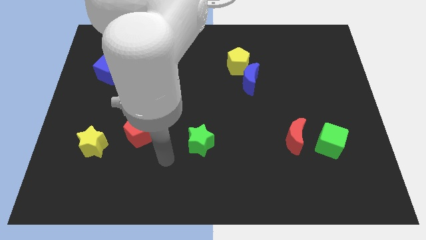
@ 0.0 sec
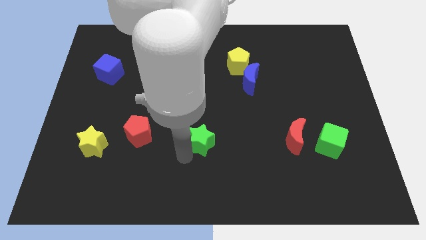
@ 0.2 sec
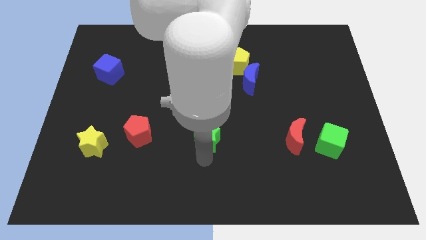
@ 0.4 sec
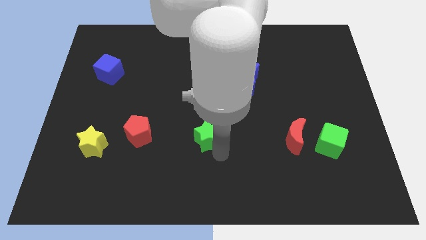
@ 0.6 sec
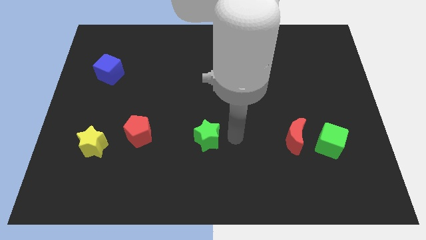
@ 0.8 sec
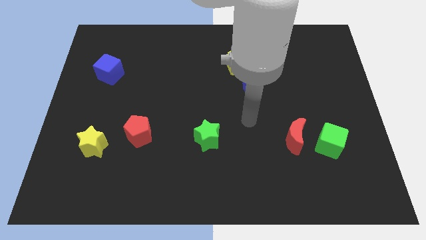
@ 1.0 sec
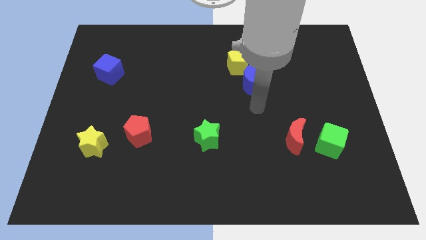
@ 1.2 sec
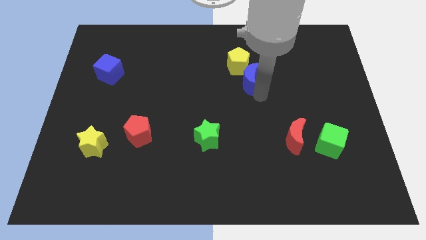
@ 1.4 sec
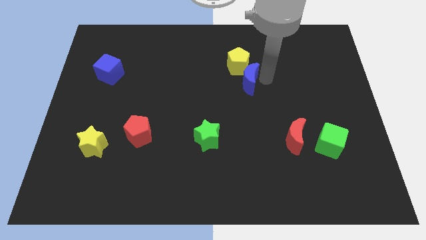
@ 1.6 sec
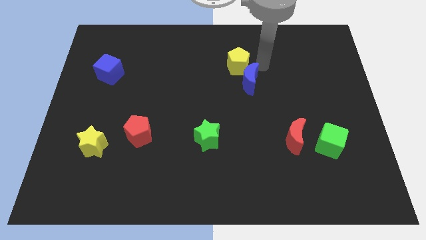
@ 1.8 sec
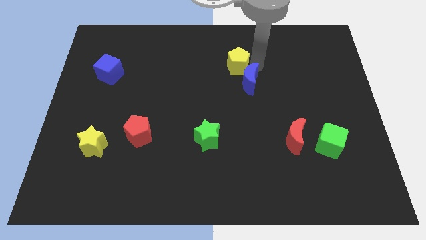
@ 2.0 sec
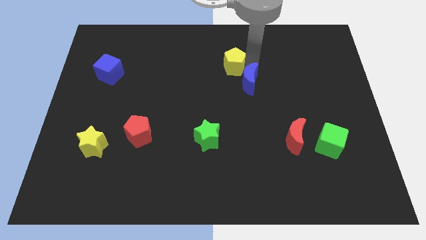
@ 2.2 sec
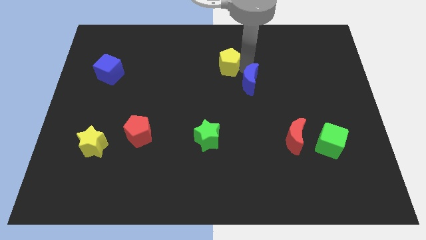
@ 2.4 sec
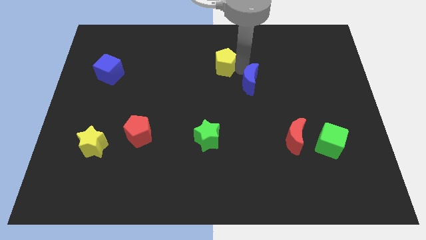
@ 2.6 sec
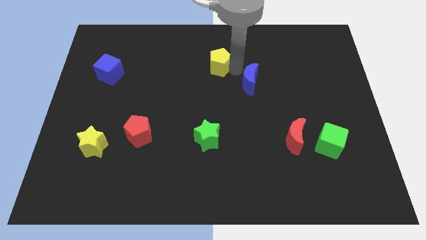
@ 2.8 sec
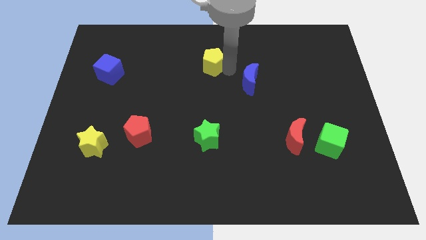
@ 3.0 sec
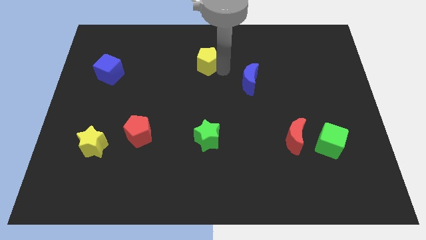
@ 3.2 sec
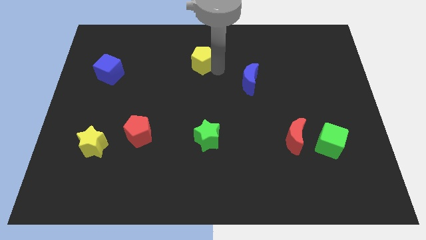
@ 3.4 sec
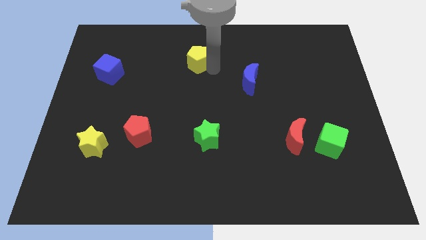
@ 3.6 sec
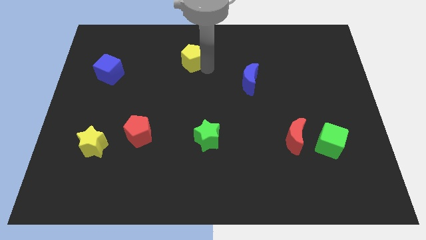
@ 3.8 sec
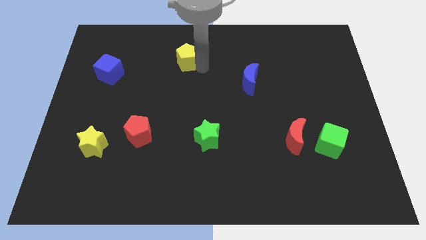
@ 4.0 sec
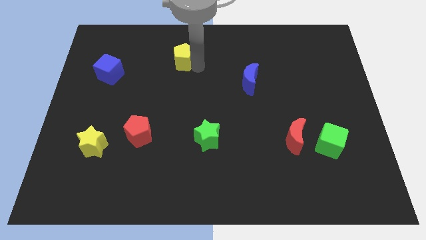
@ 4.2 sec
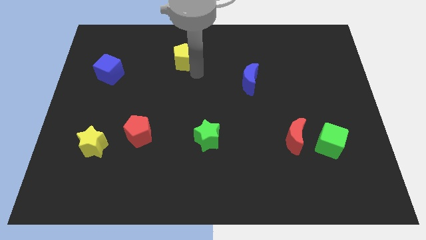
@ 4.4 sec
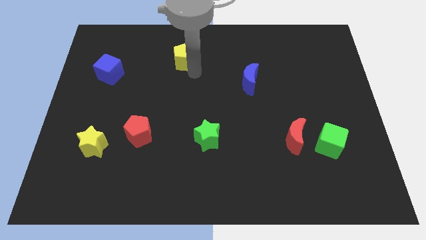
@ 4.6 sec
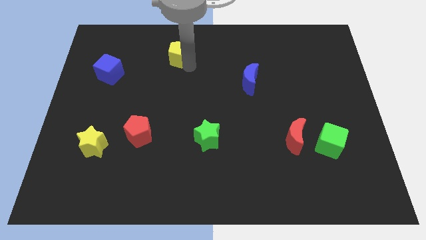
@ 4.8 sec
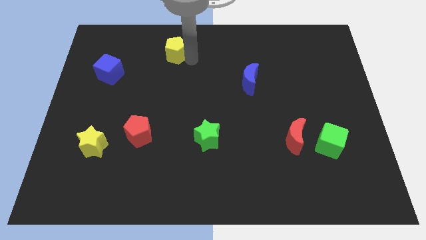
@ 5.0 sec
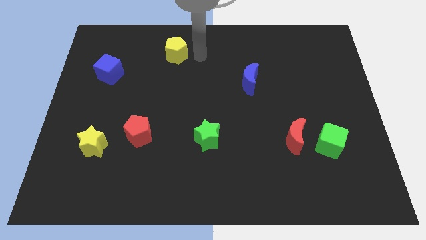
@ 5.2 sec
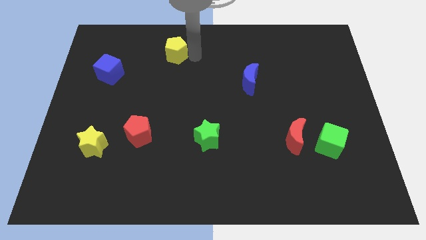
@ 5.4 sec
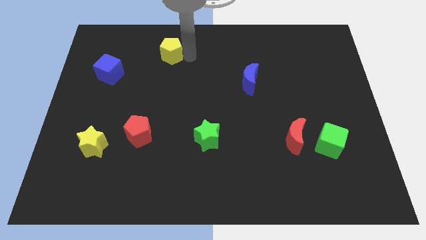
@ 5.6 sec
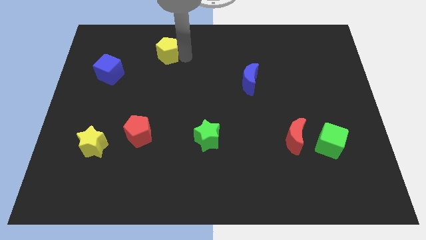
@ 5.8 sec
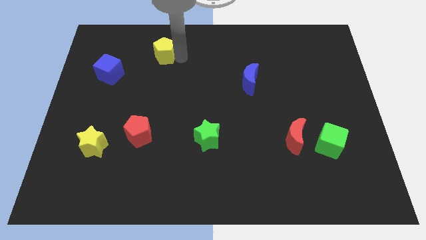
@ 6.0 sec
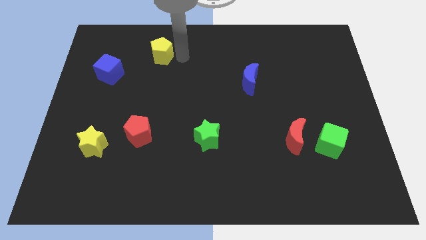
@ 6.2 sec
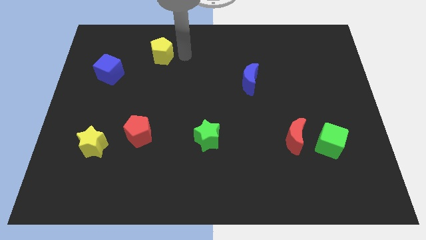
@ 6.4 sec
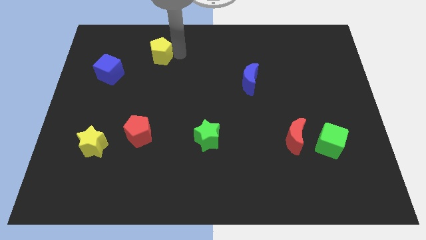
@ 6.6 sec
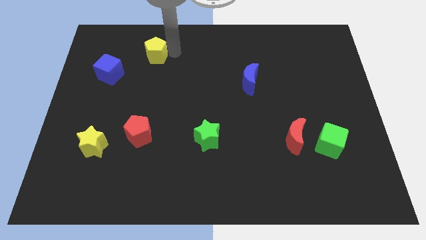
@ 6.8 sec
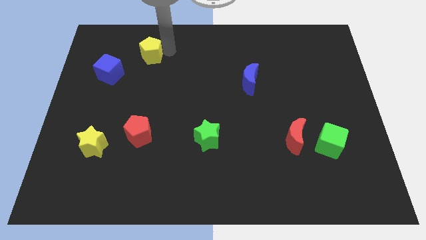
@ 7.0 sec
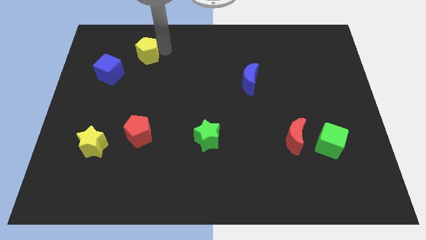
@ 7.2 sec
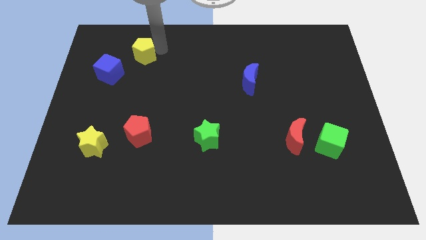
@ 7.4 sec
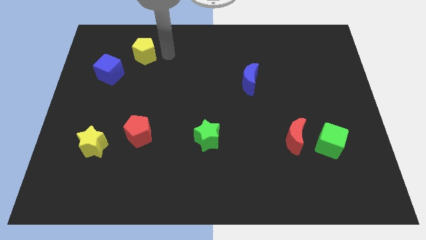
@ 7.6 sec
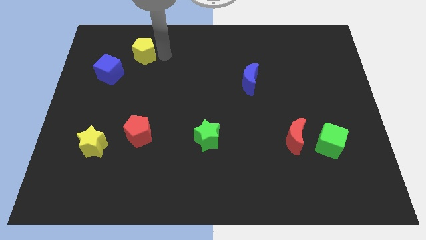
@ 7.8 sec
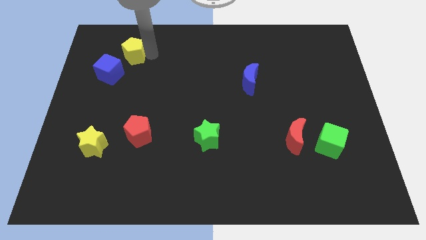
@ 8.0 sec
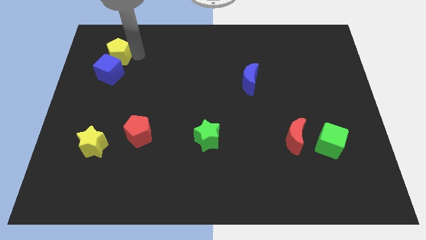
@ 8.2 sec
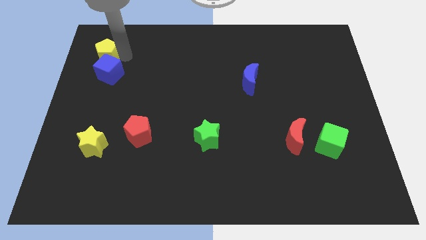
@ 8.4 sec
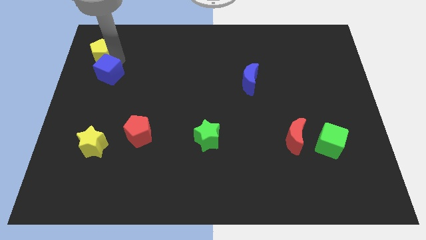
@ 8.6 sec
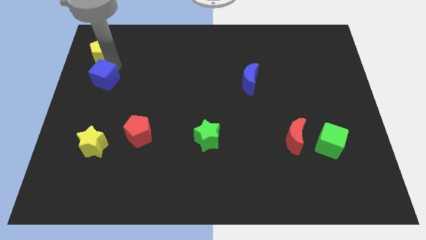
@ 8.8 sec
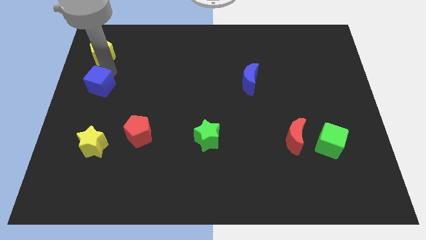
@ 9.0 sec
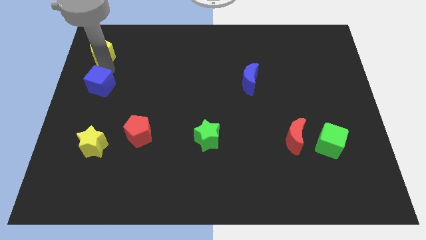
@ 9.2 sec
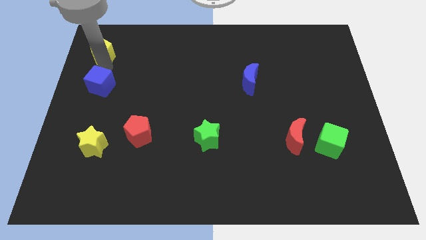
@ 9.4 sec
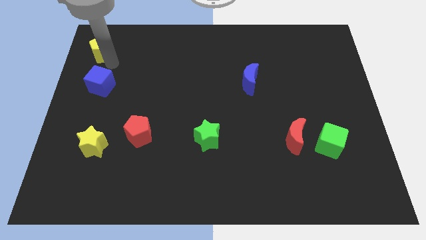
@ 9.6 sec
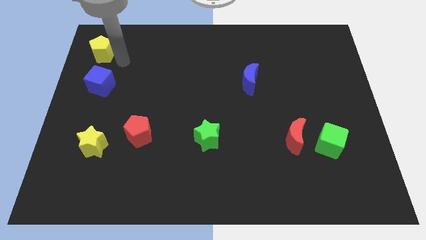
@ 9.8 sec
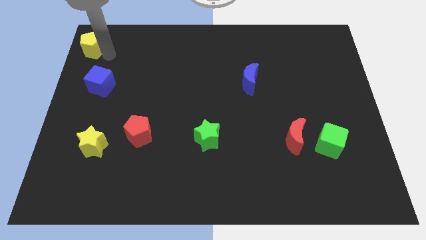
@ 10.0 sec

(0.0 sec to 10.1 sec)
push the yellow pentagon to the top left corner

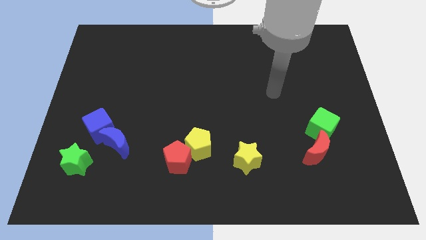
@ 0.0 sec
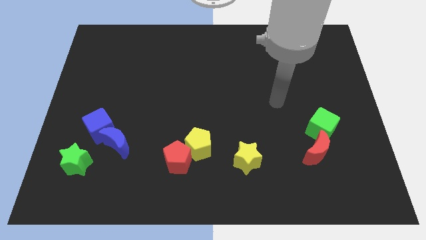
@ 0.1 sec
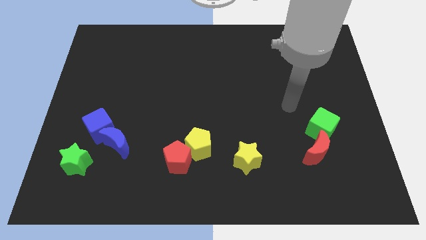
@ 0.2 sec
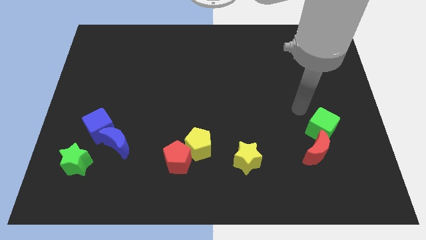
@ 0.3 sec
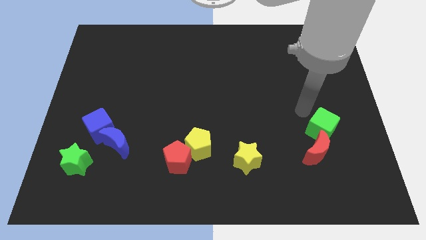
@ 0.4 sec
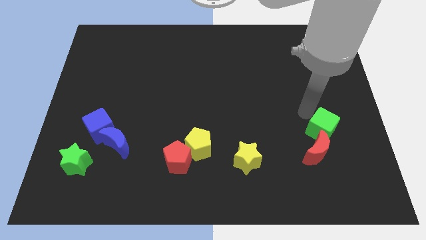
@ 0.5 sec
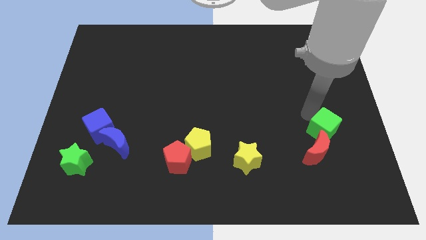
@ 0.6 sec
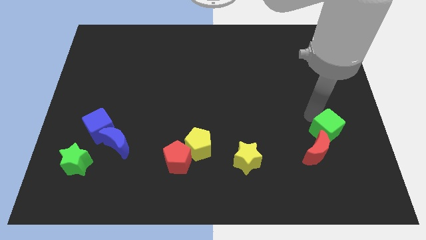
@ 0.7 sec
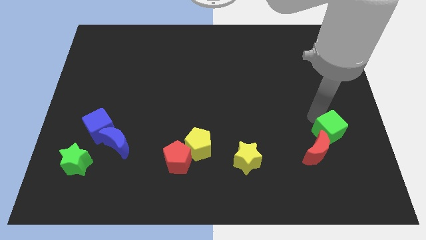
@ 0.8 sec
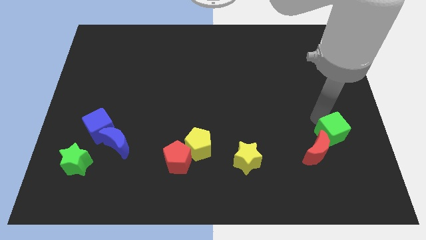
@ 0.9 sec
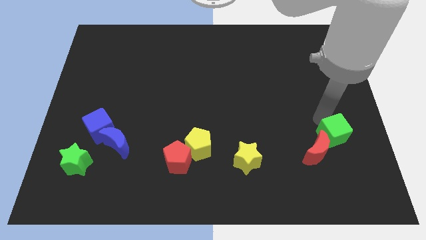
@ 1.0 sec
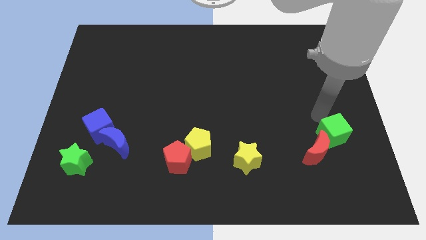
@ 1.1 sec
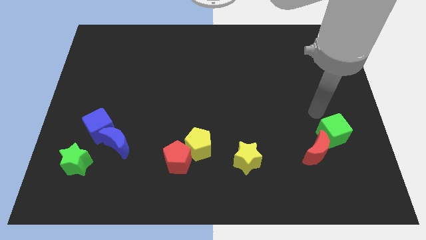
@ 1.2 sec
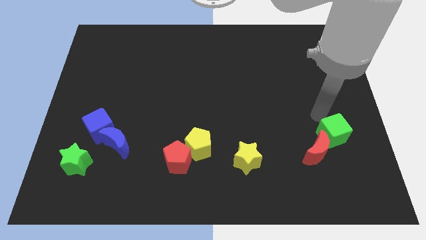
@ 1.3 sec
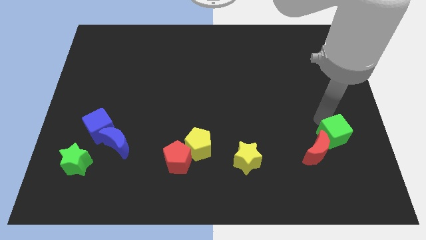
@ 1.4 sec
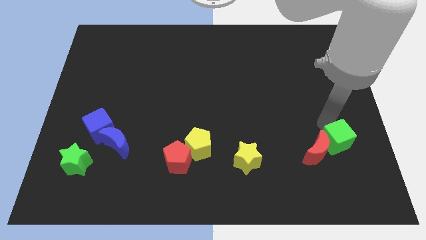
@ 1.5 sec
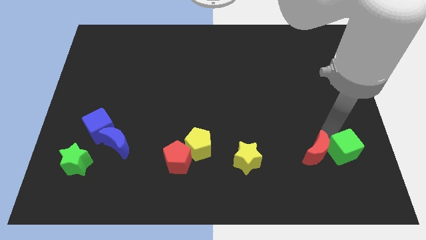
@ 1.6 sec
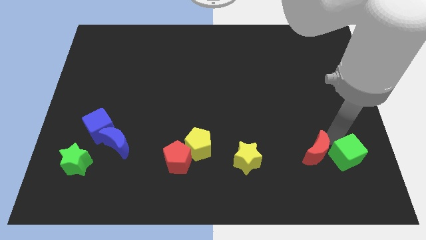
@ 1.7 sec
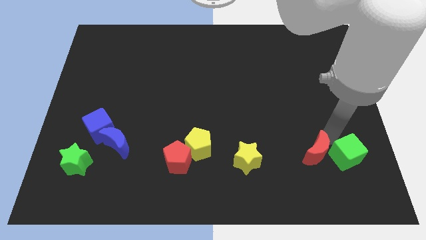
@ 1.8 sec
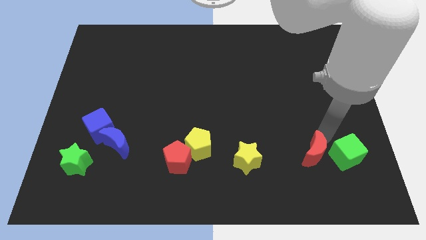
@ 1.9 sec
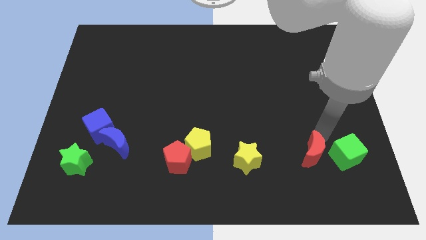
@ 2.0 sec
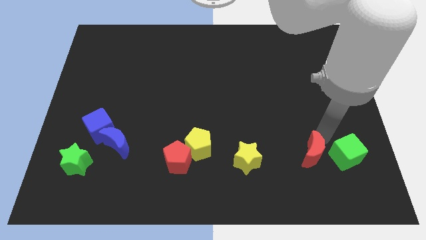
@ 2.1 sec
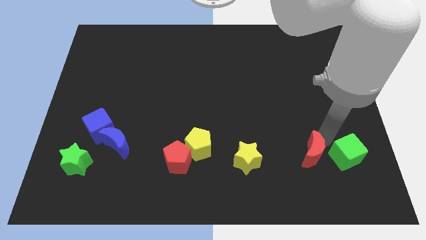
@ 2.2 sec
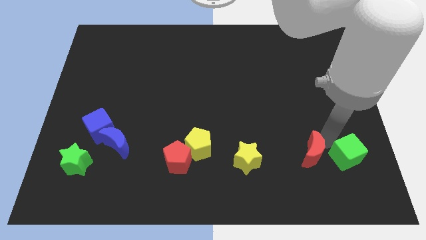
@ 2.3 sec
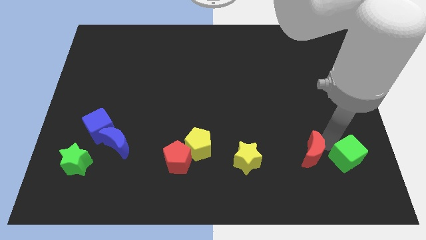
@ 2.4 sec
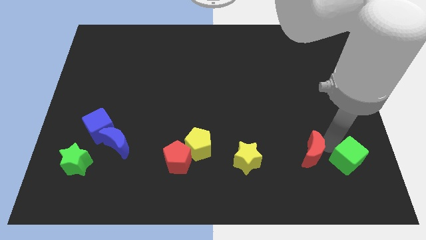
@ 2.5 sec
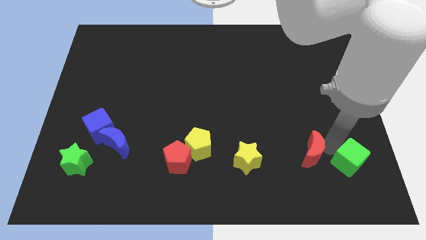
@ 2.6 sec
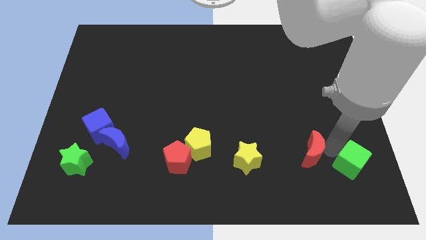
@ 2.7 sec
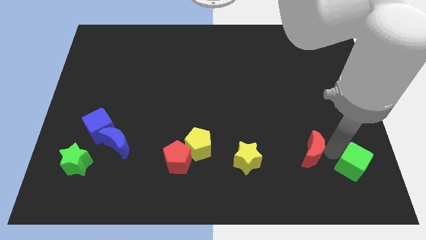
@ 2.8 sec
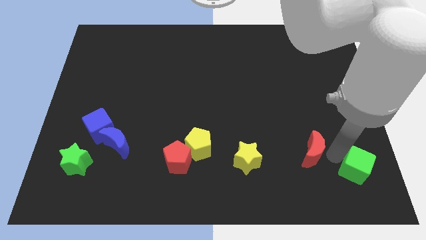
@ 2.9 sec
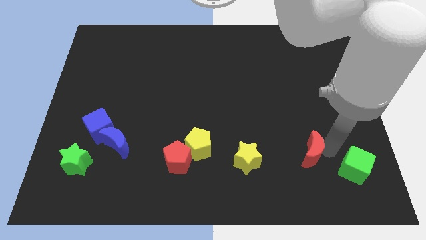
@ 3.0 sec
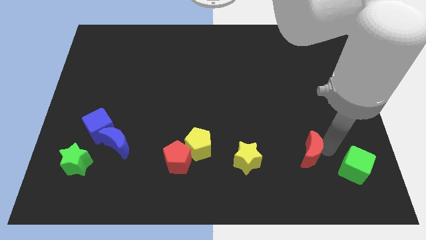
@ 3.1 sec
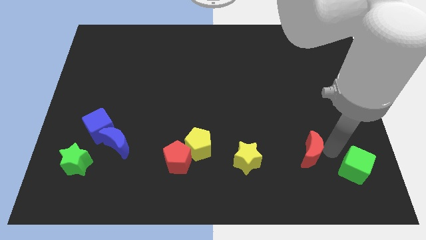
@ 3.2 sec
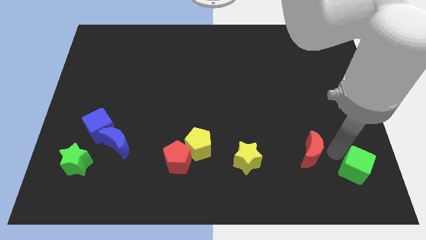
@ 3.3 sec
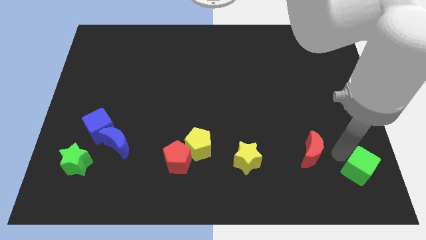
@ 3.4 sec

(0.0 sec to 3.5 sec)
move the green cube to the bottom right
